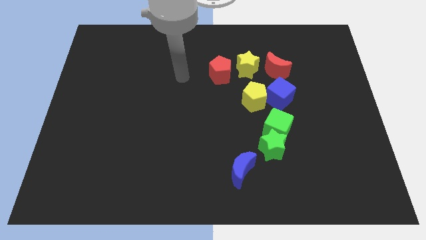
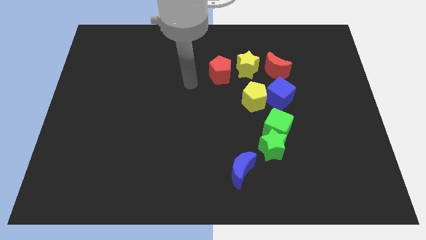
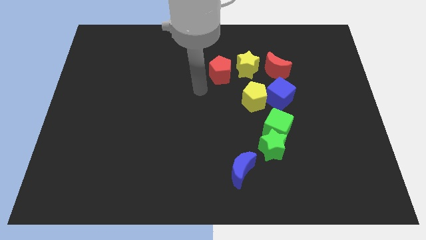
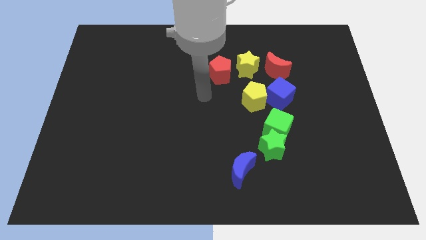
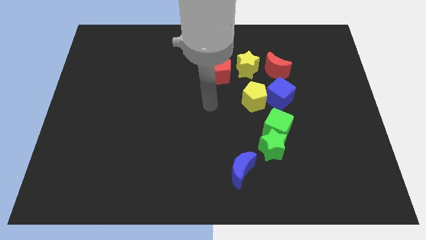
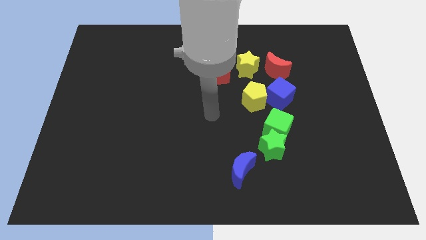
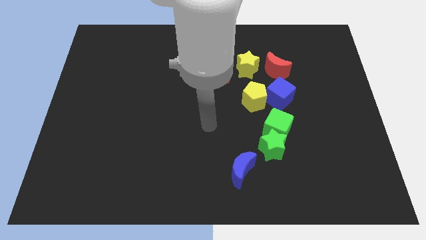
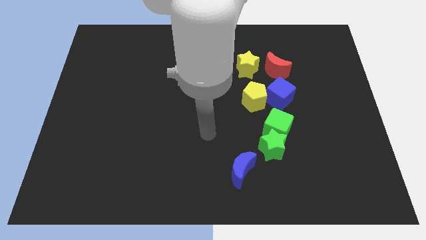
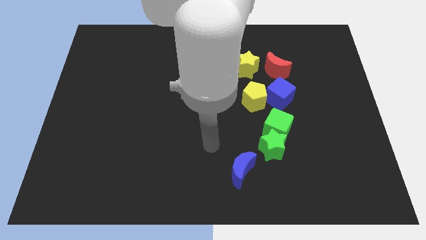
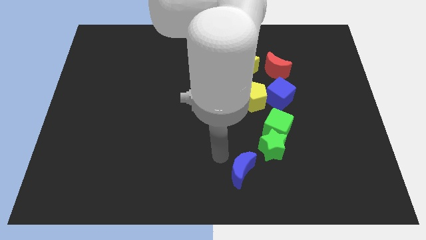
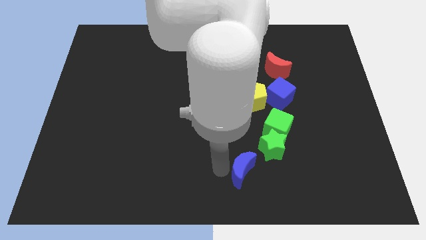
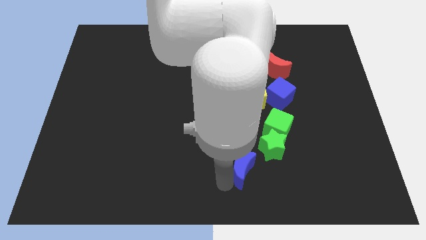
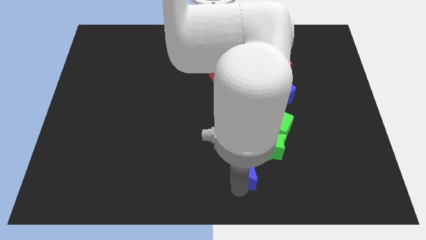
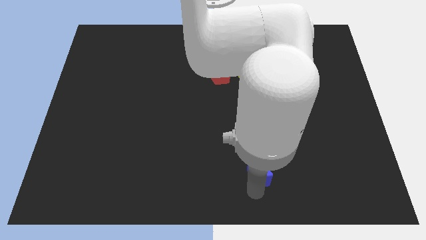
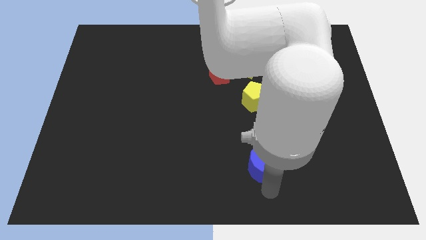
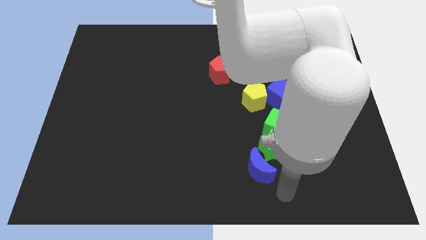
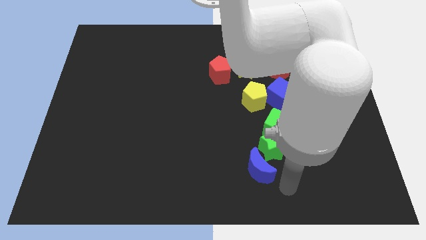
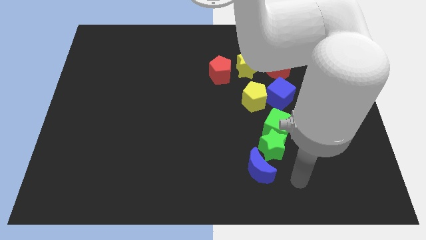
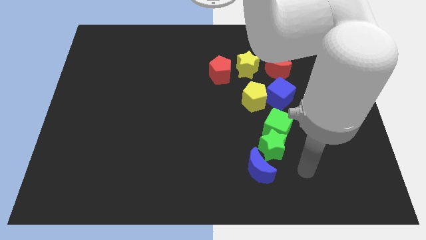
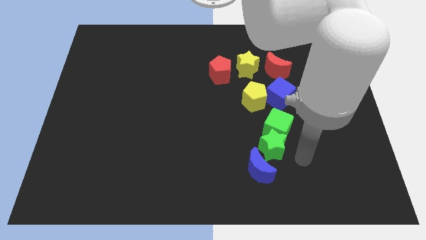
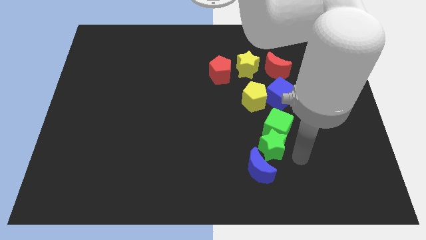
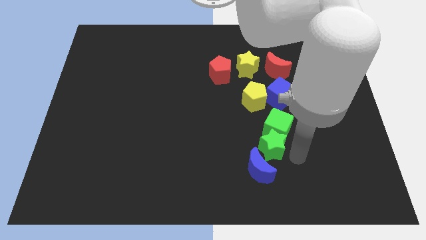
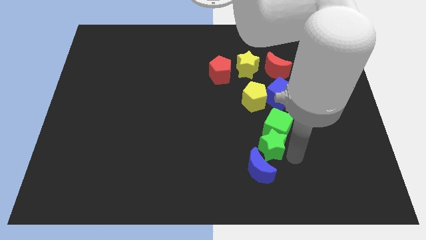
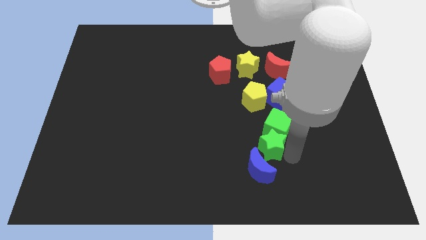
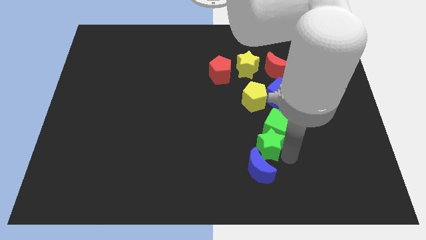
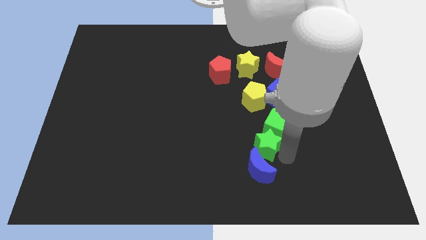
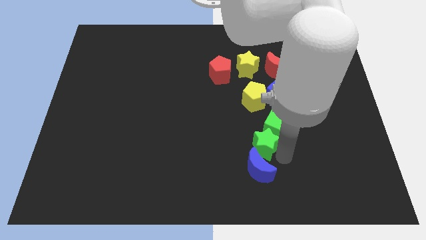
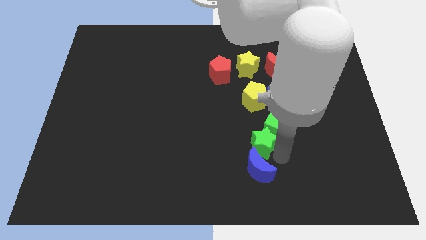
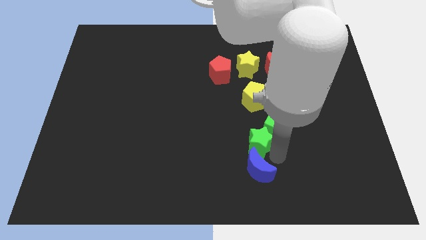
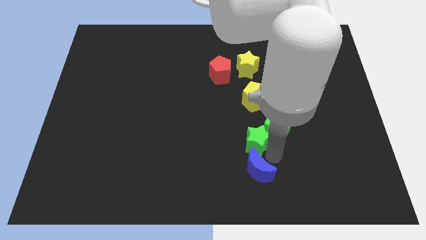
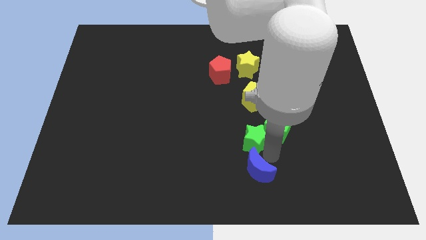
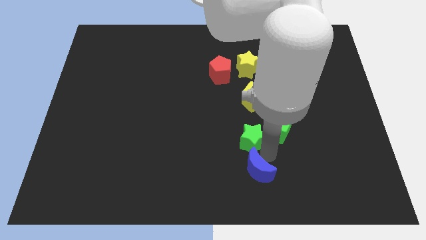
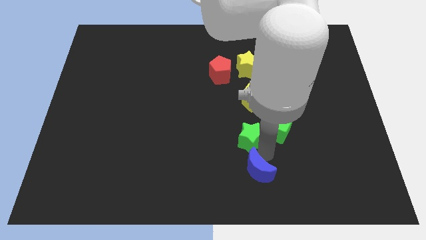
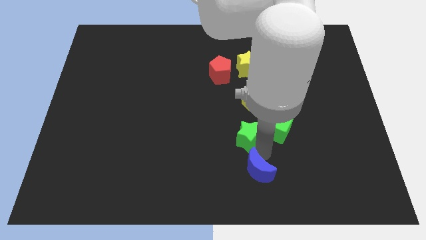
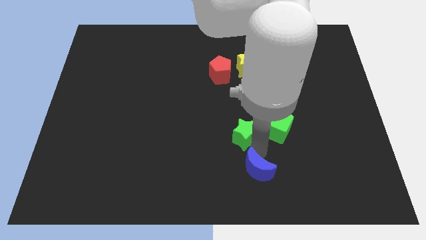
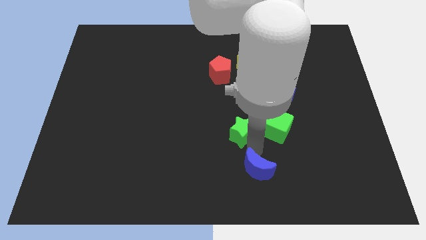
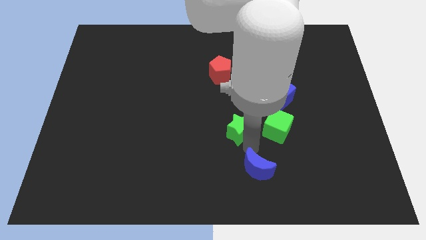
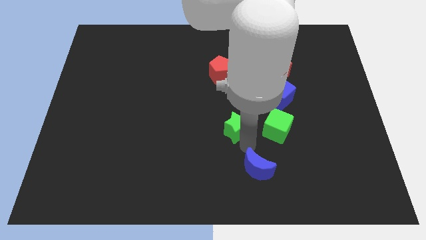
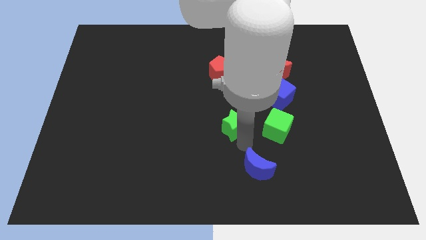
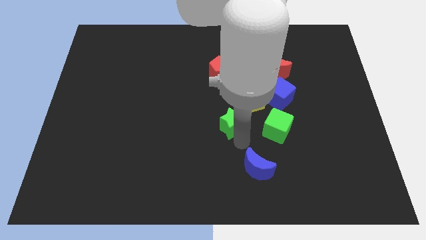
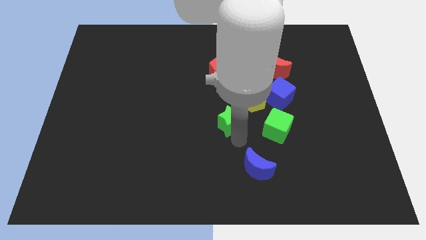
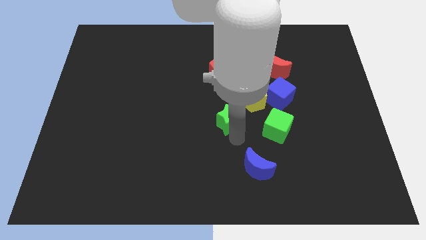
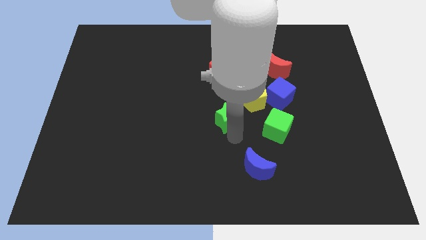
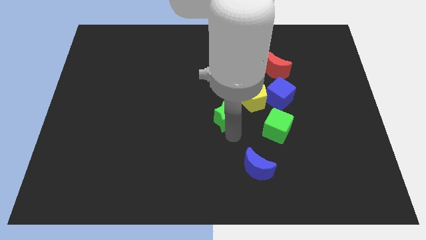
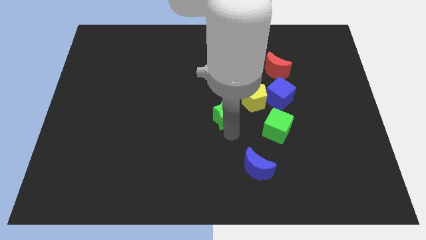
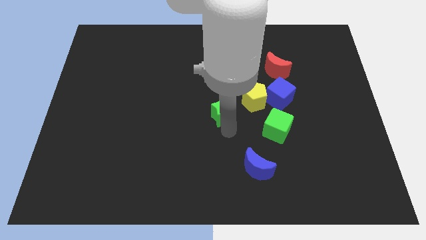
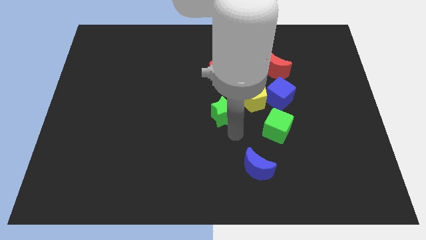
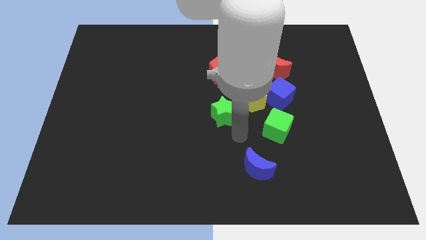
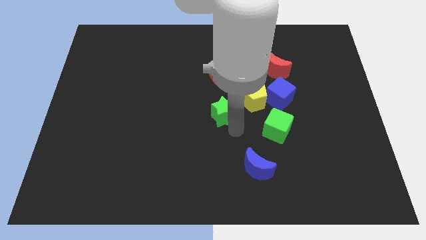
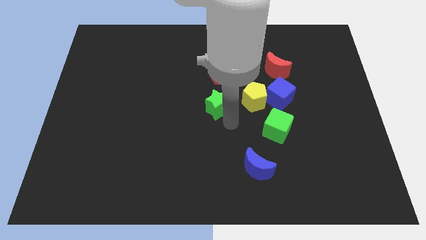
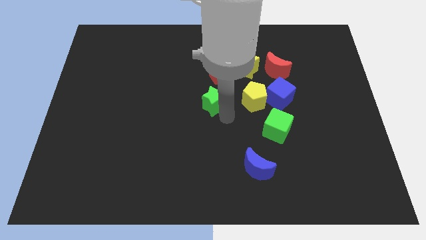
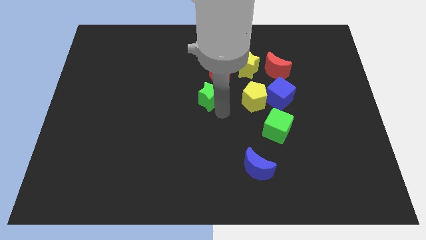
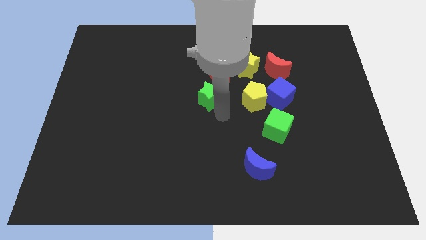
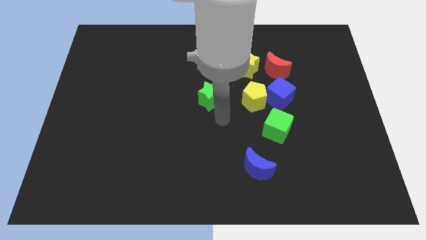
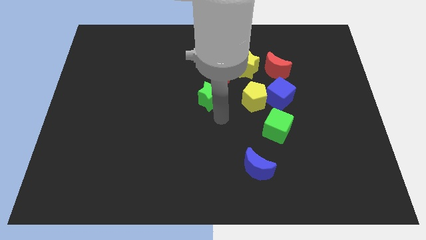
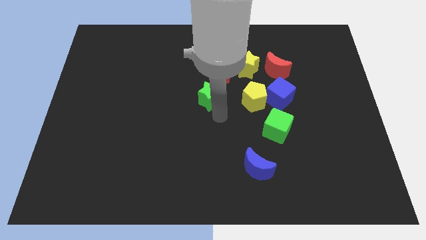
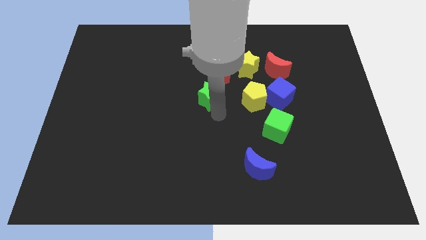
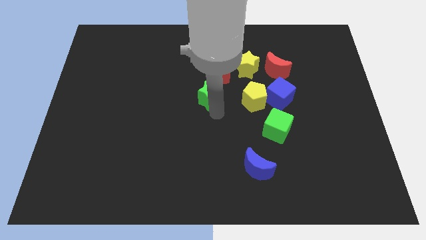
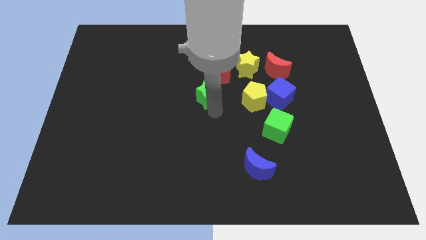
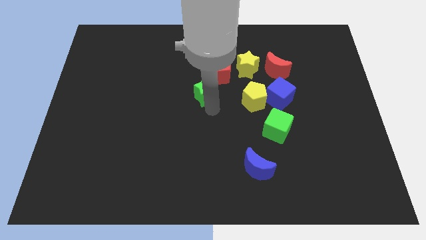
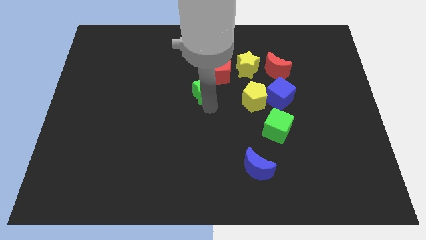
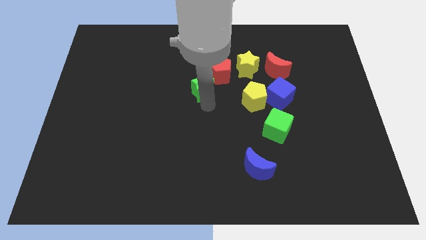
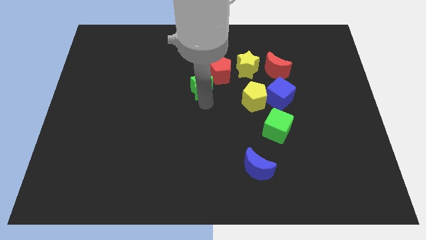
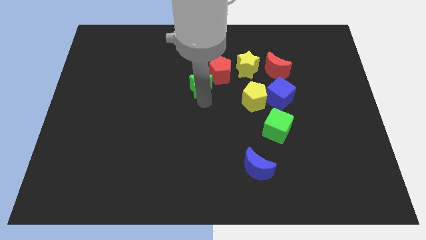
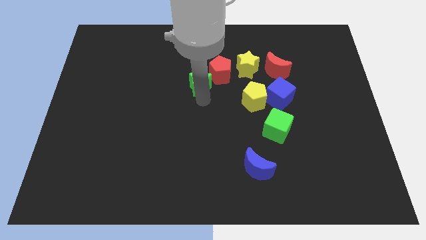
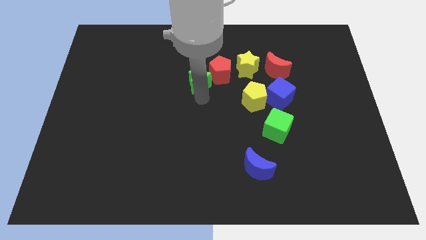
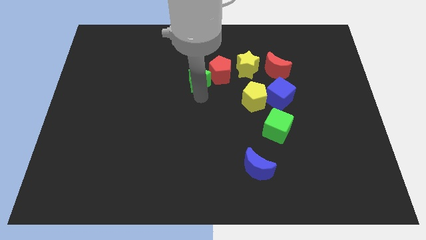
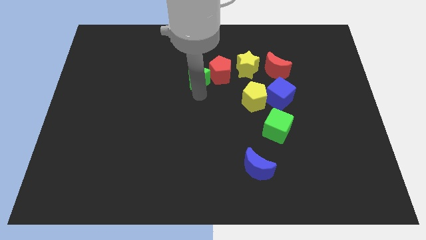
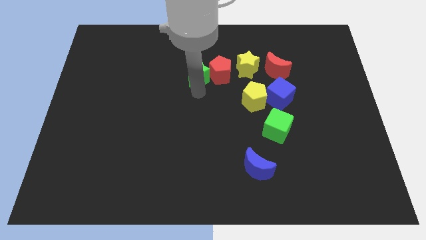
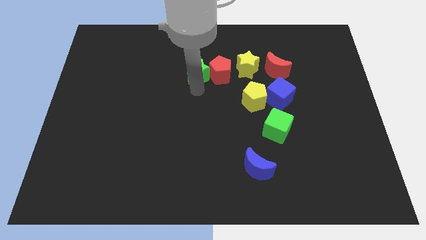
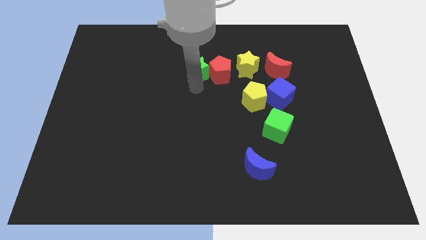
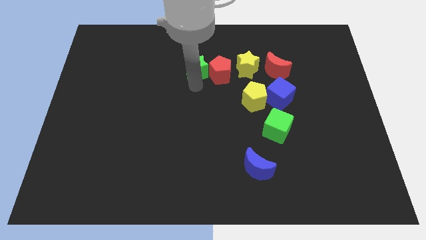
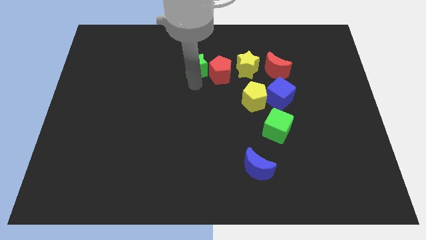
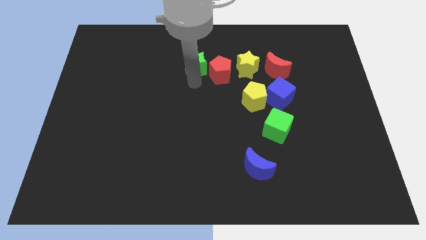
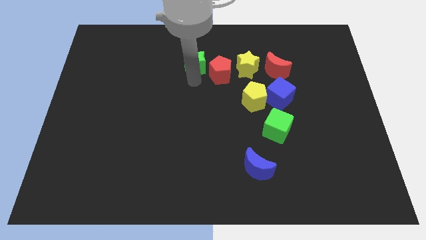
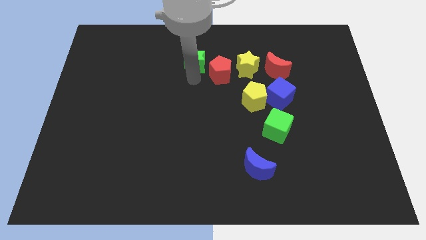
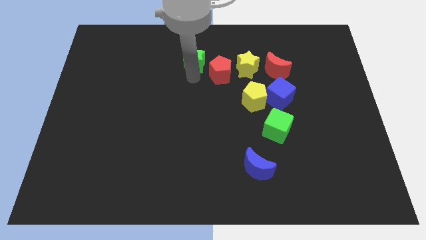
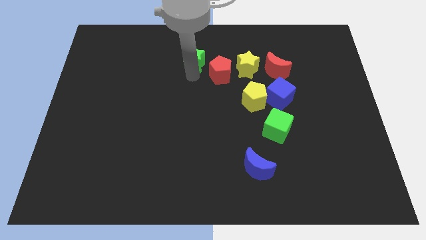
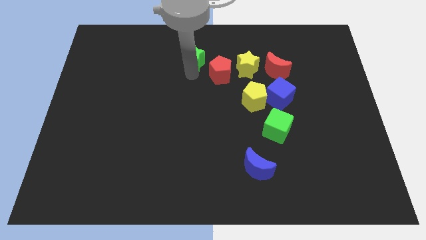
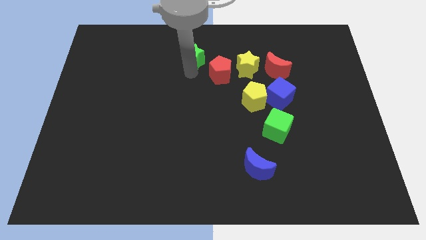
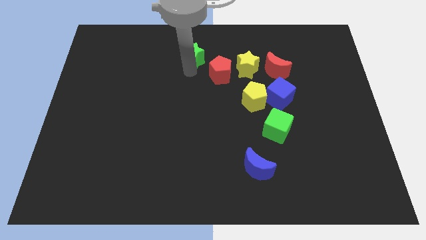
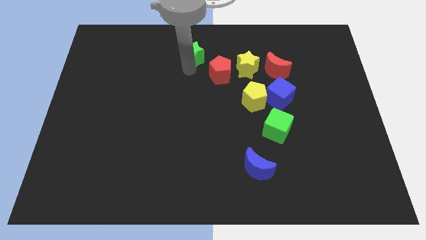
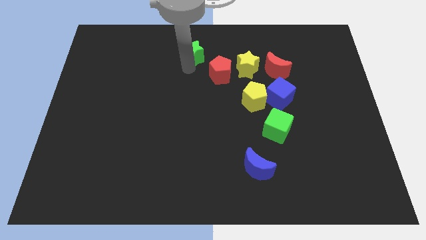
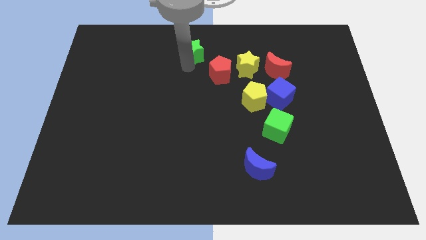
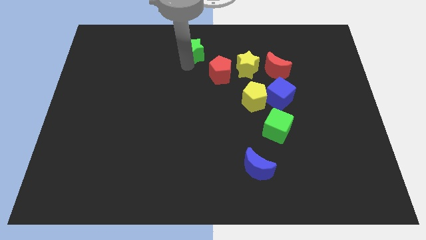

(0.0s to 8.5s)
move the green star to the top side
